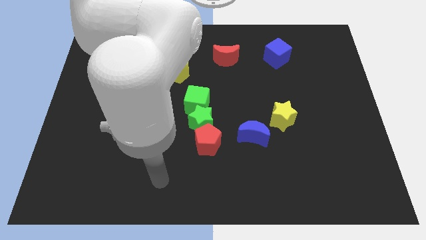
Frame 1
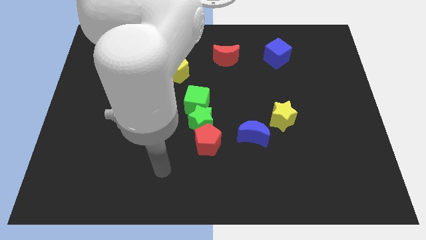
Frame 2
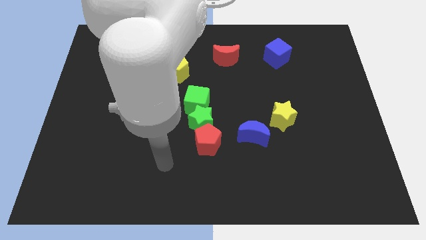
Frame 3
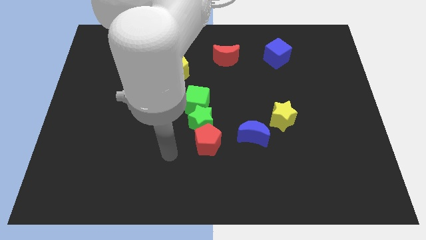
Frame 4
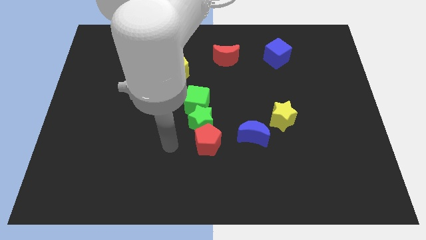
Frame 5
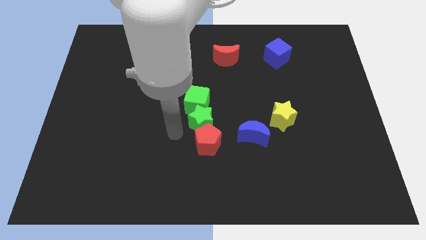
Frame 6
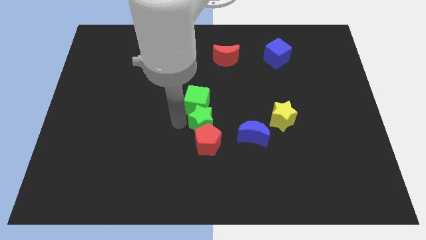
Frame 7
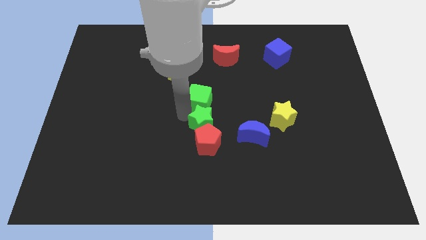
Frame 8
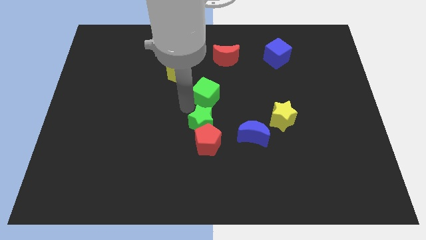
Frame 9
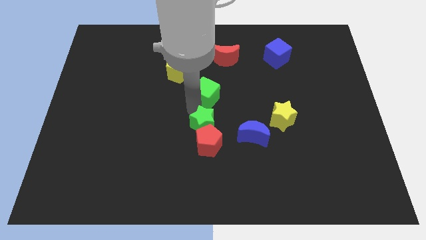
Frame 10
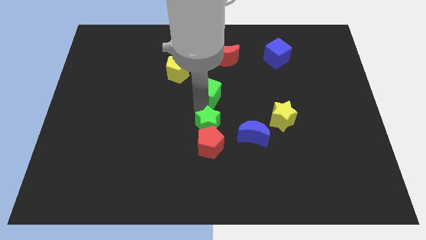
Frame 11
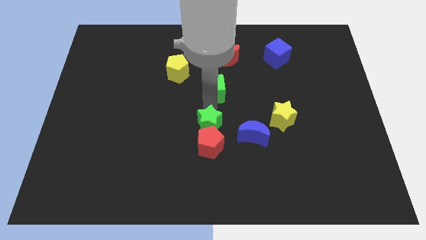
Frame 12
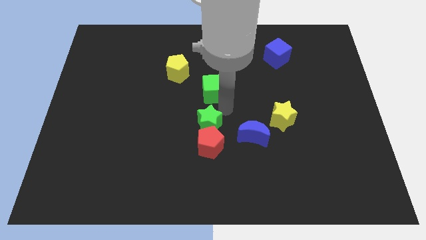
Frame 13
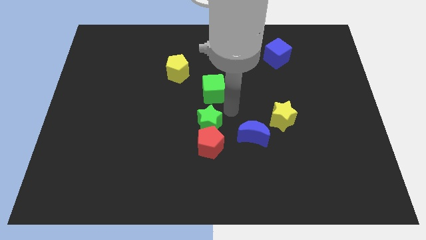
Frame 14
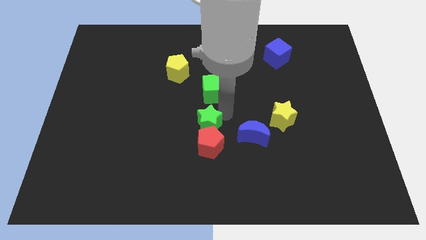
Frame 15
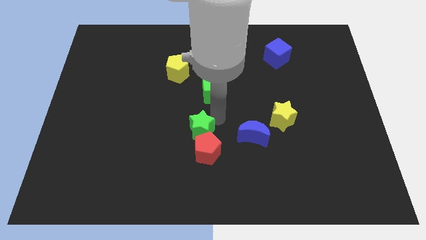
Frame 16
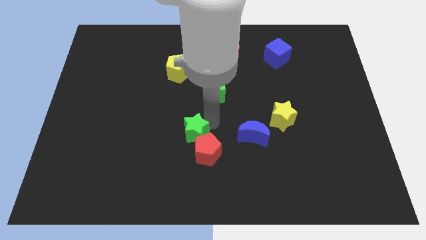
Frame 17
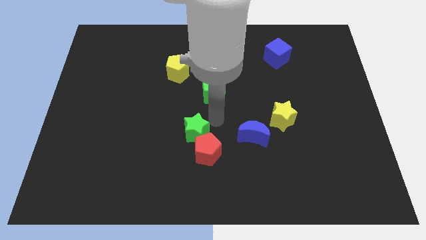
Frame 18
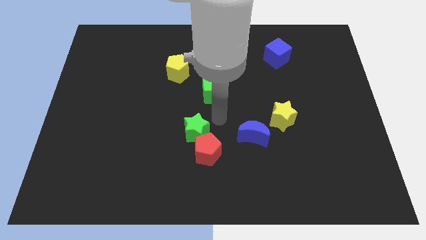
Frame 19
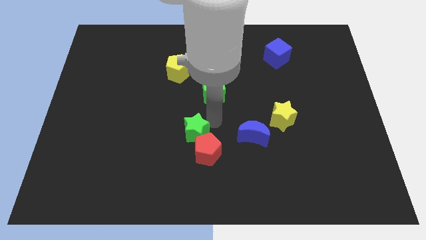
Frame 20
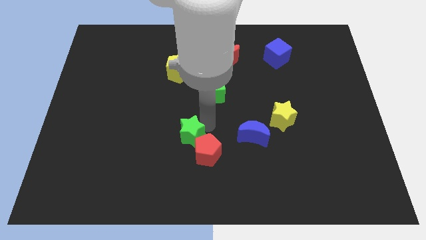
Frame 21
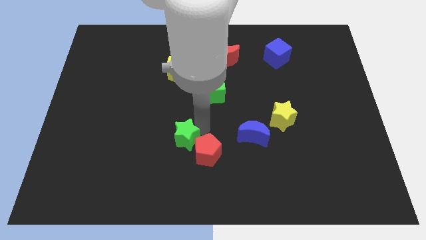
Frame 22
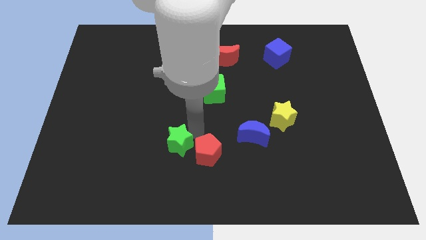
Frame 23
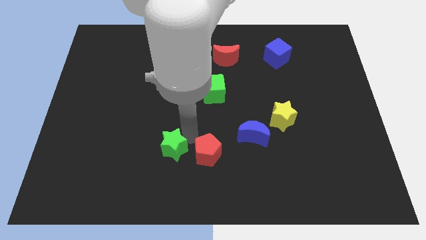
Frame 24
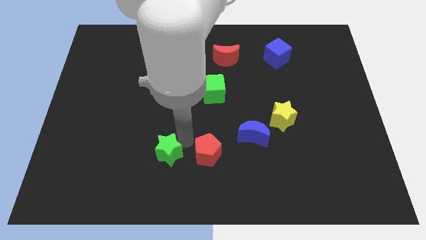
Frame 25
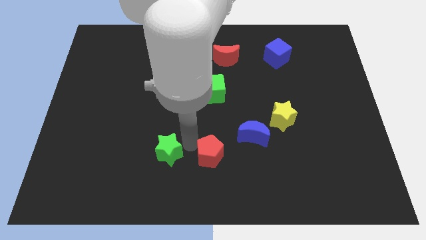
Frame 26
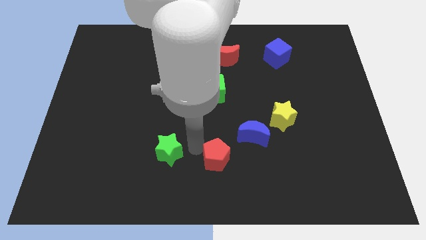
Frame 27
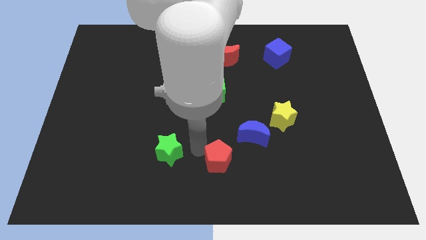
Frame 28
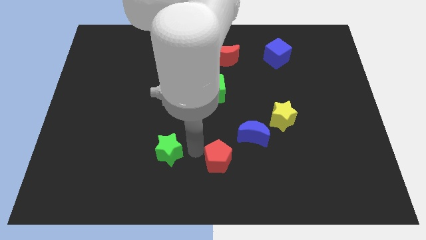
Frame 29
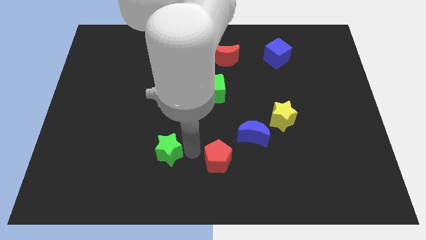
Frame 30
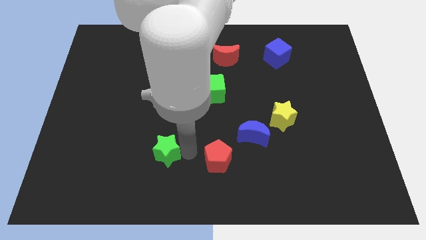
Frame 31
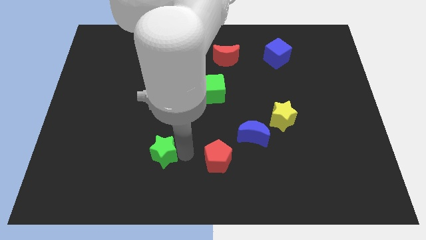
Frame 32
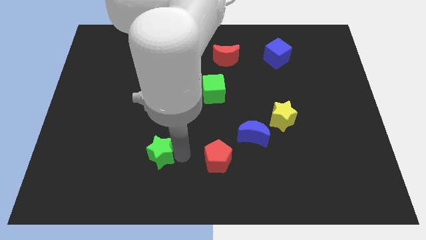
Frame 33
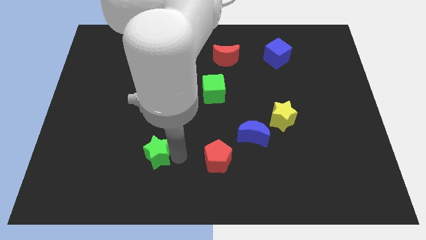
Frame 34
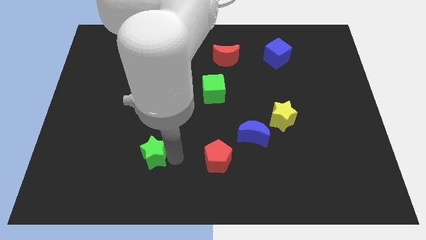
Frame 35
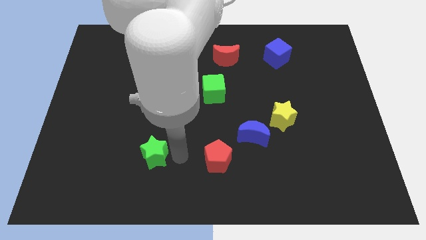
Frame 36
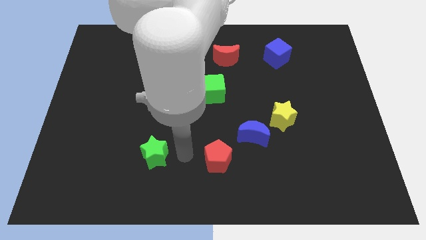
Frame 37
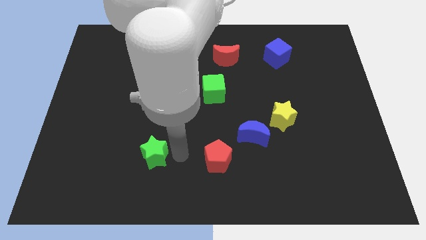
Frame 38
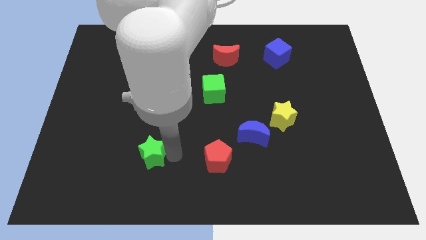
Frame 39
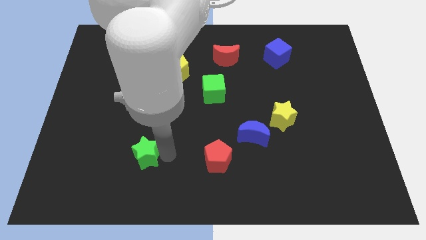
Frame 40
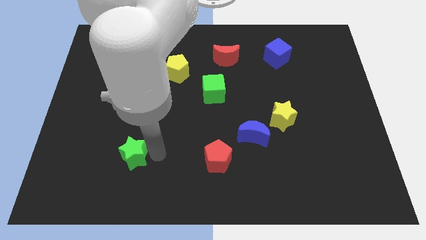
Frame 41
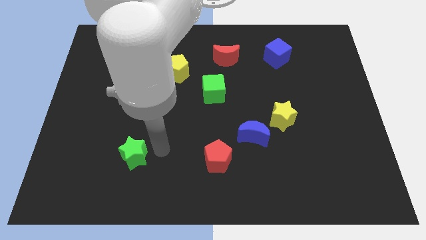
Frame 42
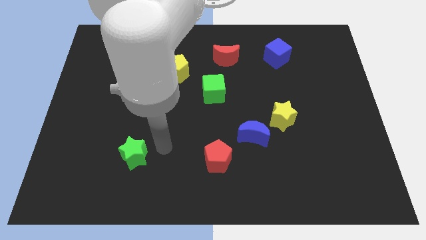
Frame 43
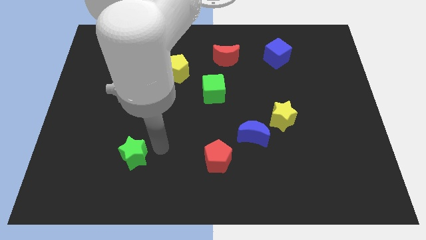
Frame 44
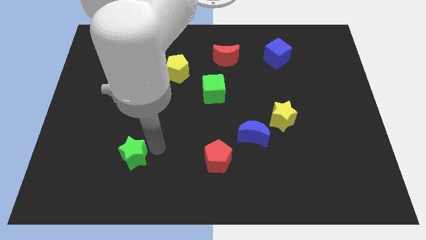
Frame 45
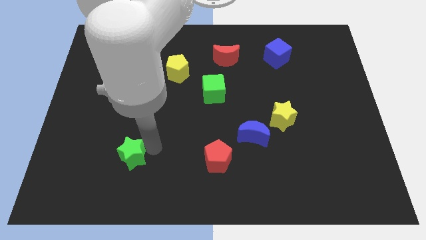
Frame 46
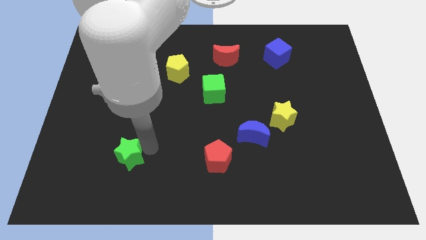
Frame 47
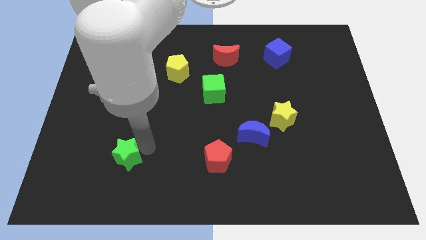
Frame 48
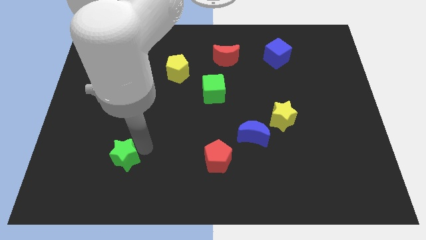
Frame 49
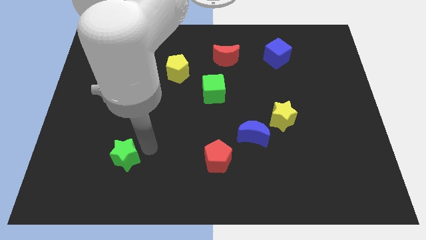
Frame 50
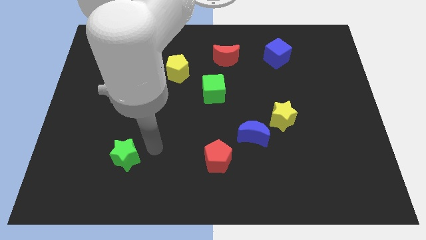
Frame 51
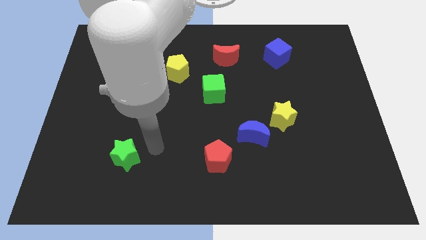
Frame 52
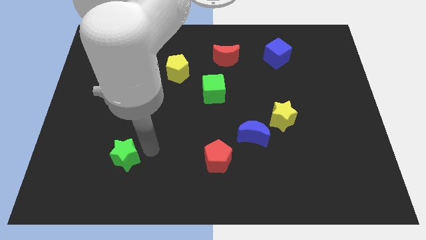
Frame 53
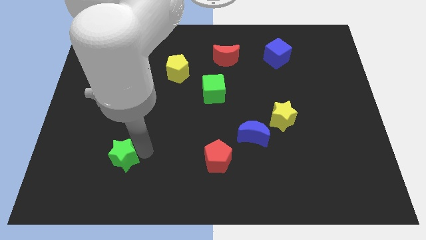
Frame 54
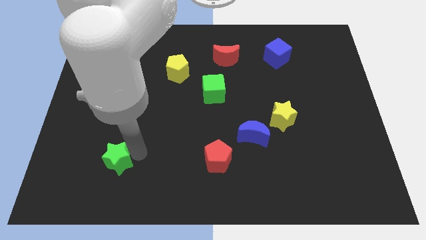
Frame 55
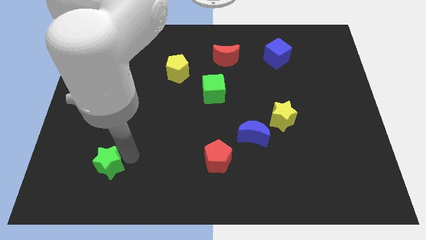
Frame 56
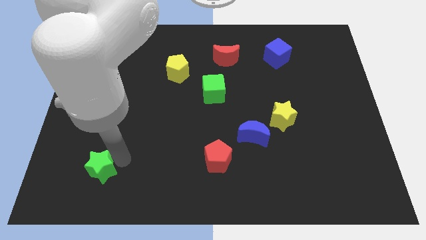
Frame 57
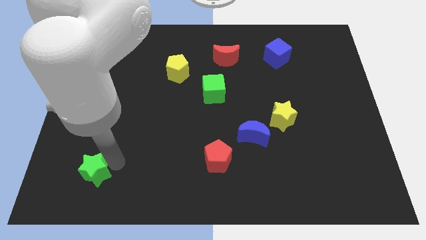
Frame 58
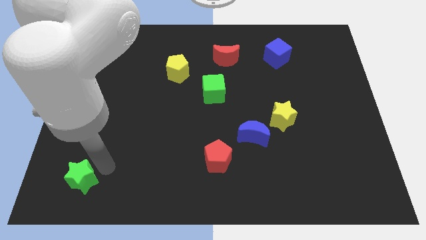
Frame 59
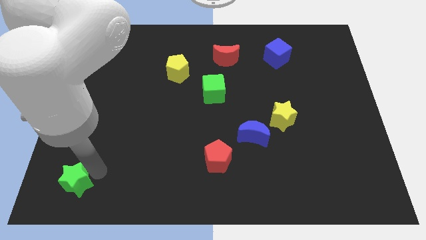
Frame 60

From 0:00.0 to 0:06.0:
move the green star to the bottom left

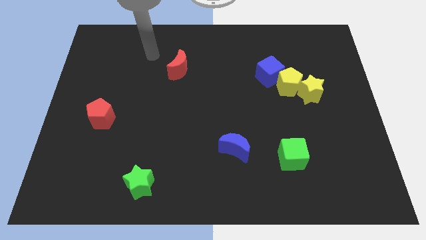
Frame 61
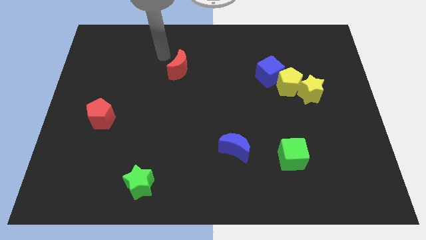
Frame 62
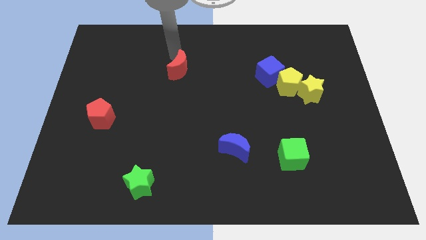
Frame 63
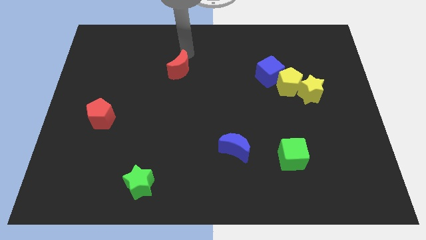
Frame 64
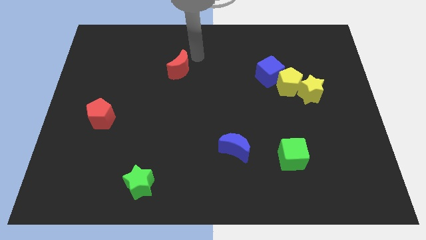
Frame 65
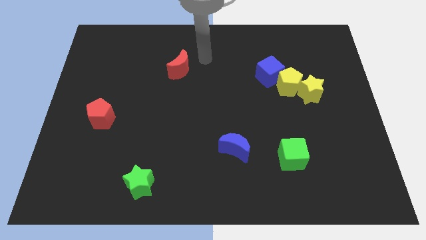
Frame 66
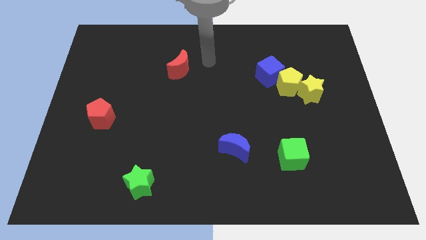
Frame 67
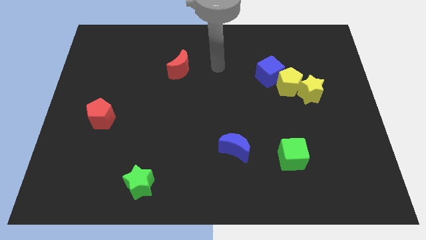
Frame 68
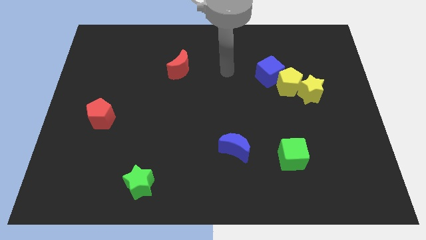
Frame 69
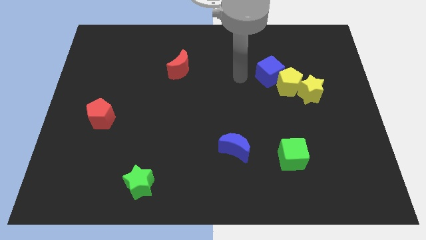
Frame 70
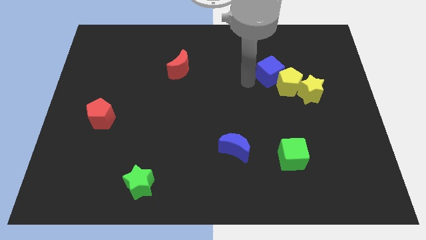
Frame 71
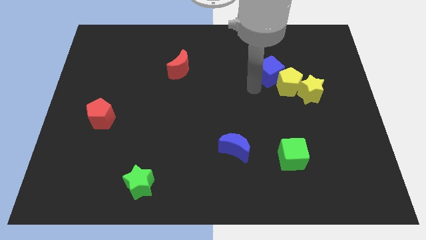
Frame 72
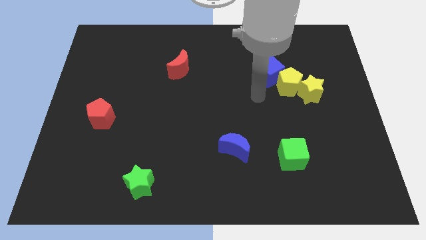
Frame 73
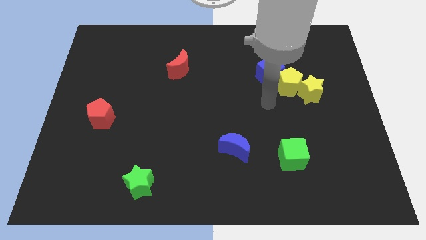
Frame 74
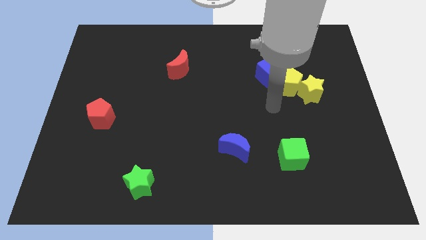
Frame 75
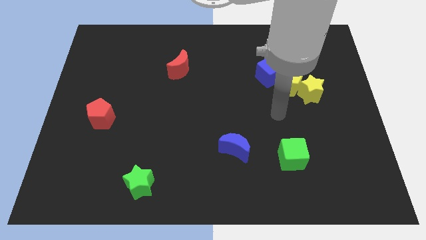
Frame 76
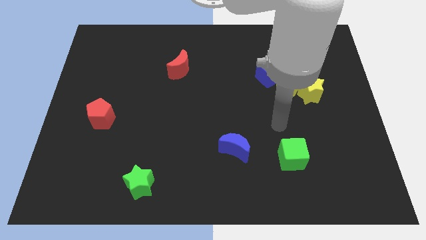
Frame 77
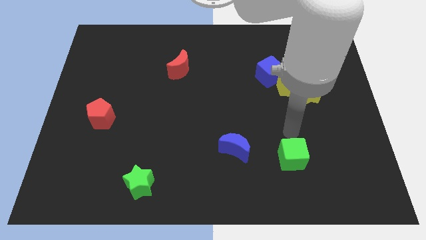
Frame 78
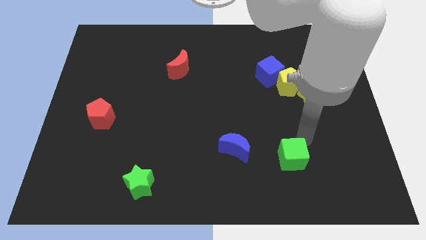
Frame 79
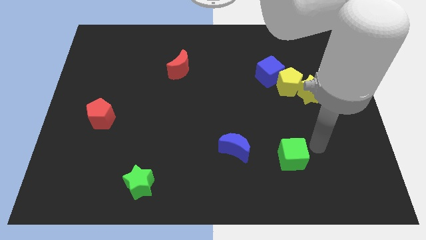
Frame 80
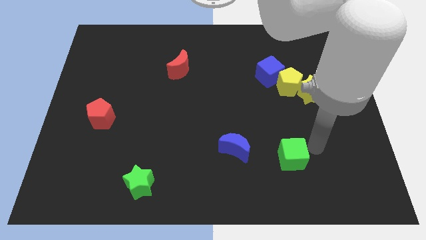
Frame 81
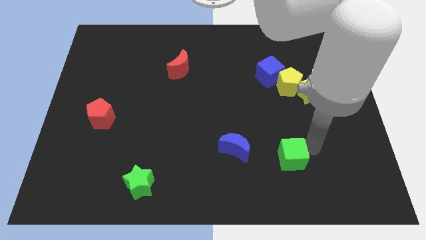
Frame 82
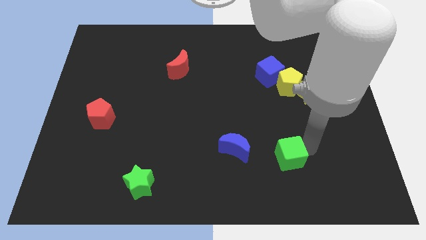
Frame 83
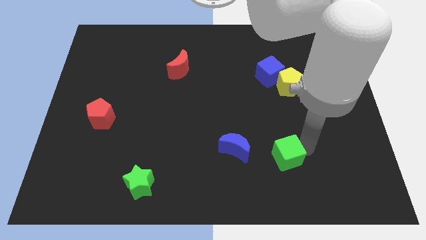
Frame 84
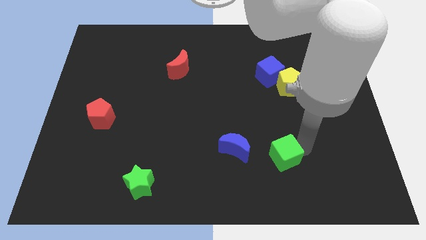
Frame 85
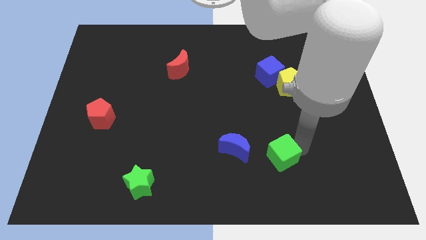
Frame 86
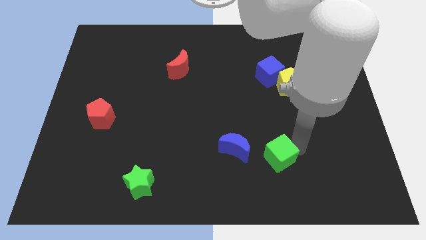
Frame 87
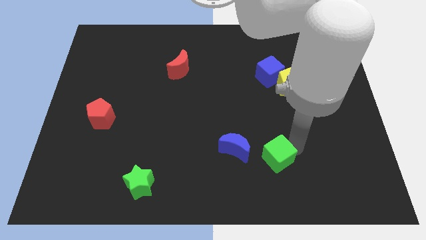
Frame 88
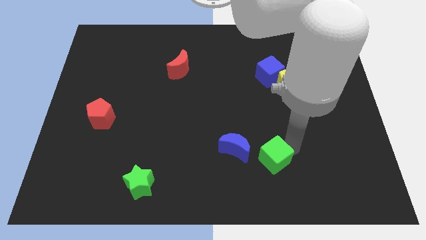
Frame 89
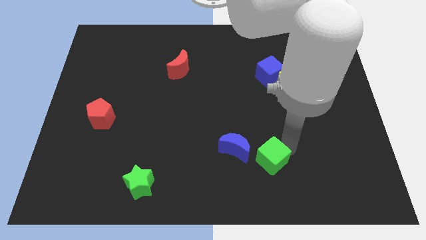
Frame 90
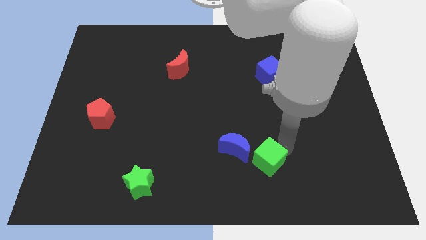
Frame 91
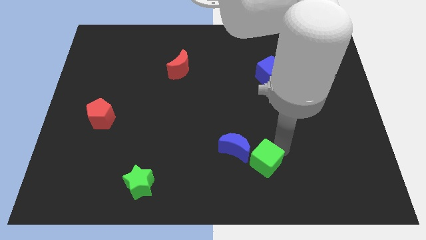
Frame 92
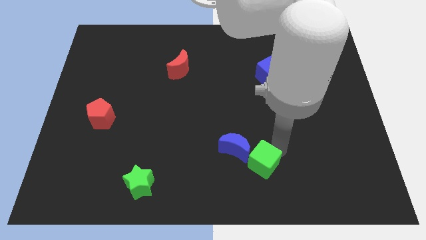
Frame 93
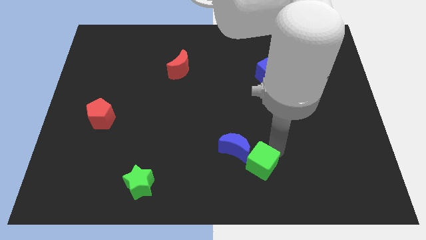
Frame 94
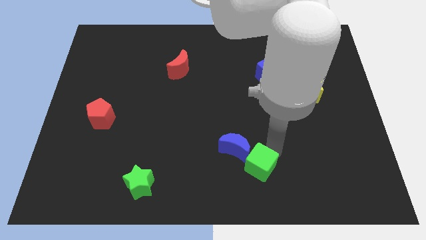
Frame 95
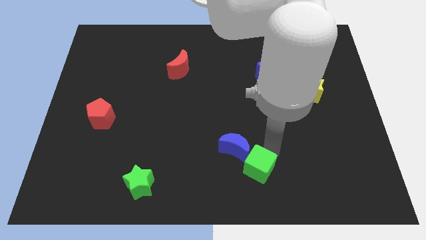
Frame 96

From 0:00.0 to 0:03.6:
slide the green cube to the bottom side
